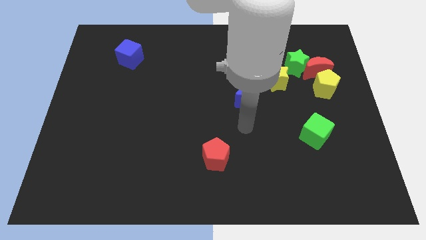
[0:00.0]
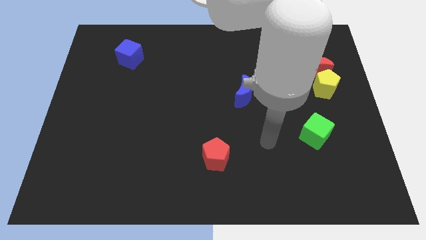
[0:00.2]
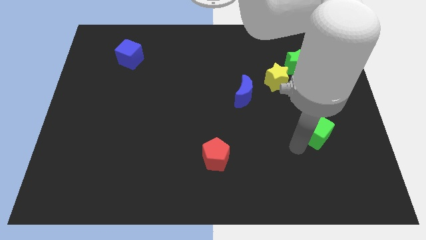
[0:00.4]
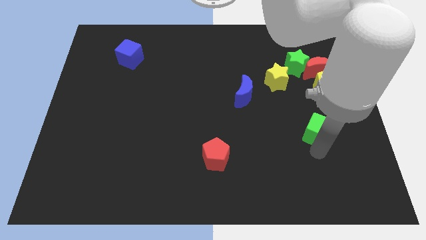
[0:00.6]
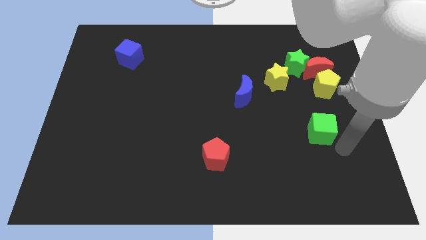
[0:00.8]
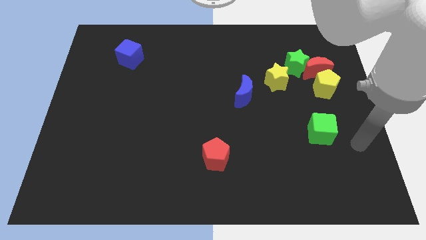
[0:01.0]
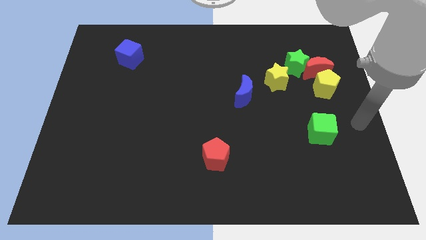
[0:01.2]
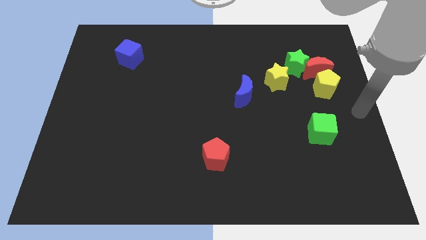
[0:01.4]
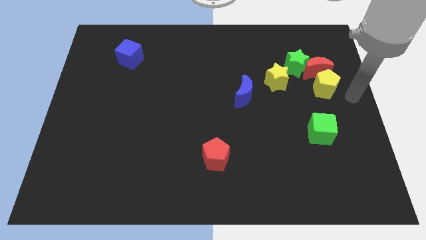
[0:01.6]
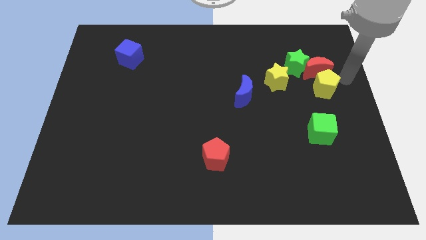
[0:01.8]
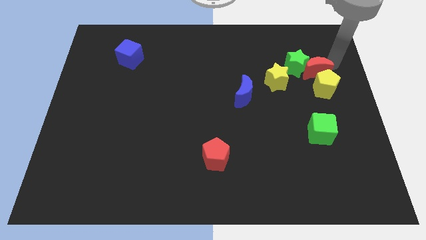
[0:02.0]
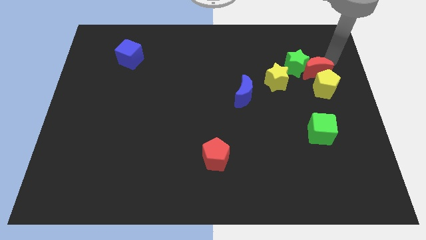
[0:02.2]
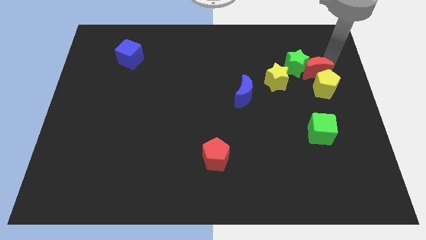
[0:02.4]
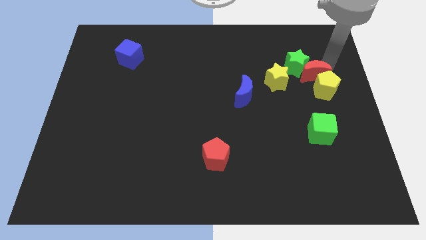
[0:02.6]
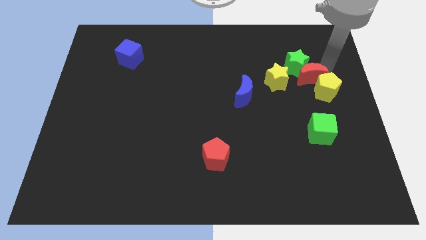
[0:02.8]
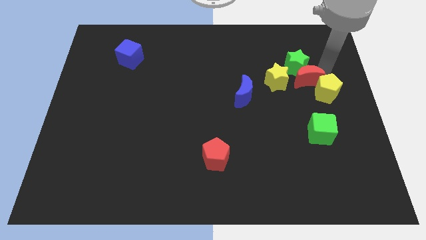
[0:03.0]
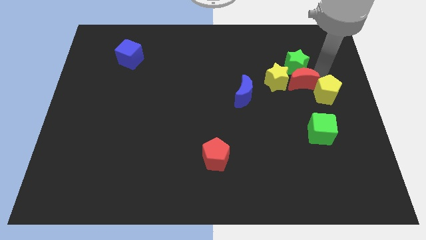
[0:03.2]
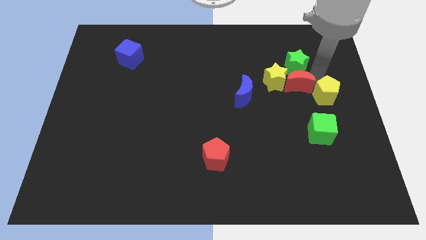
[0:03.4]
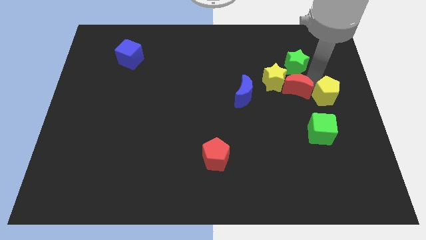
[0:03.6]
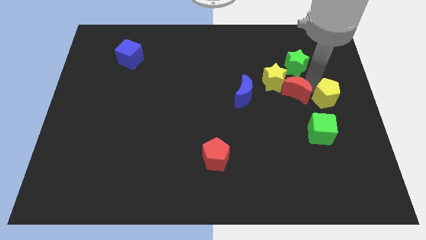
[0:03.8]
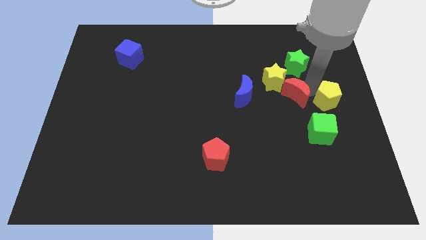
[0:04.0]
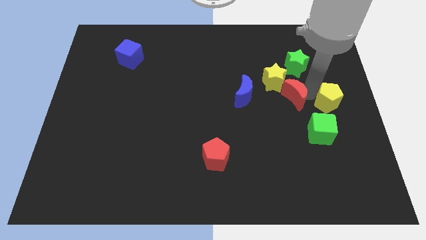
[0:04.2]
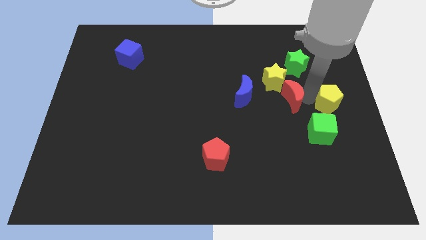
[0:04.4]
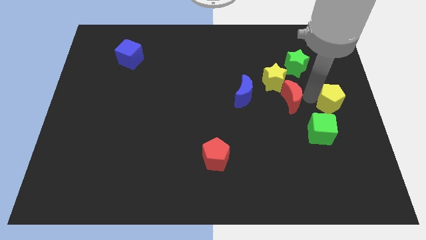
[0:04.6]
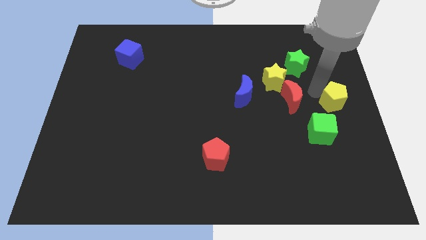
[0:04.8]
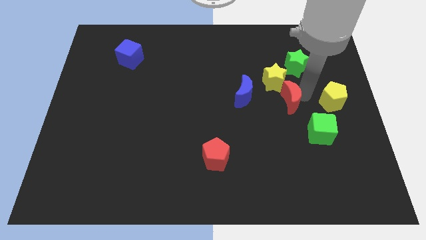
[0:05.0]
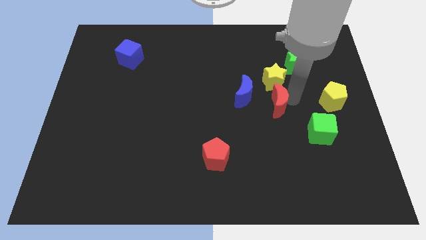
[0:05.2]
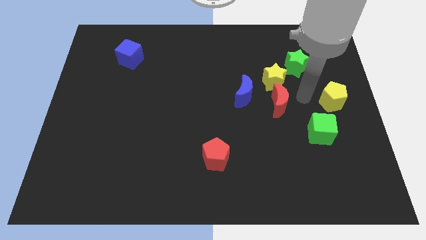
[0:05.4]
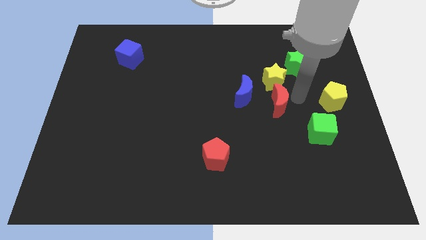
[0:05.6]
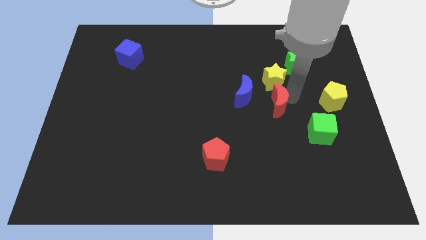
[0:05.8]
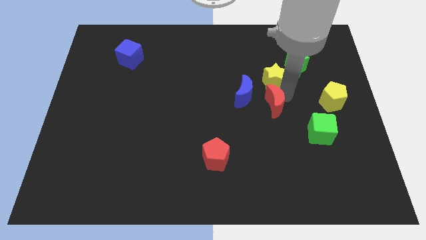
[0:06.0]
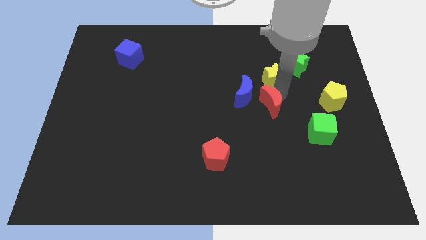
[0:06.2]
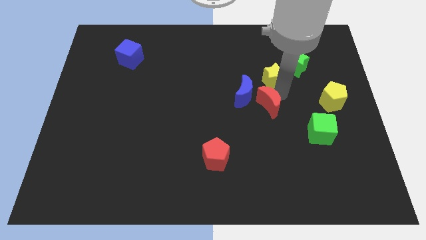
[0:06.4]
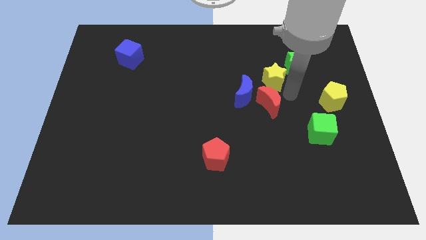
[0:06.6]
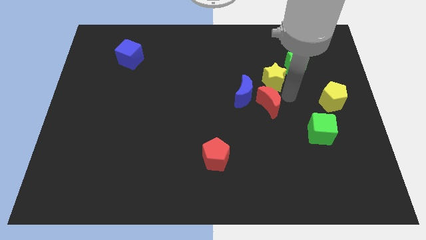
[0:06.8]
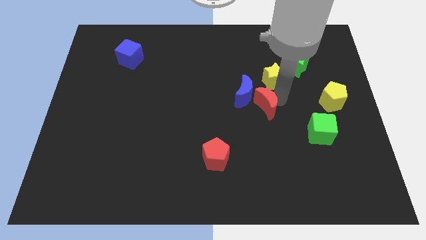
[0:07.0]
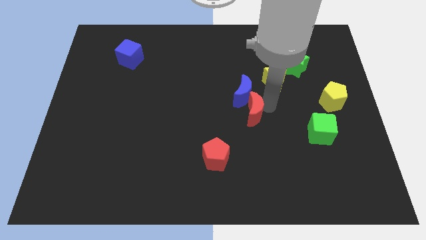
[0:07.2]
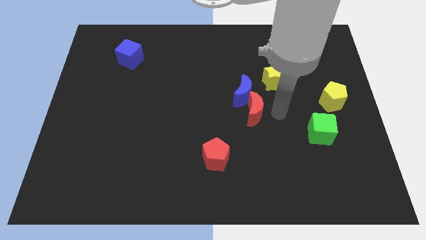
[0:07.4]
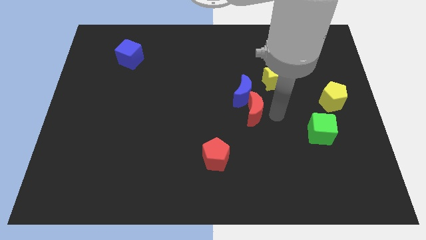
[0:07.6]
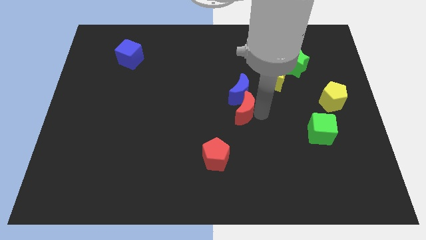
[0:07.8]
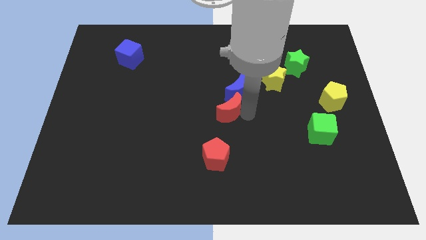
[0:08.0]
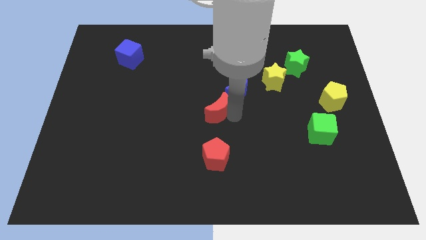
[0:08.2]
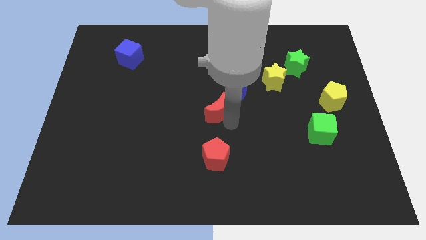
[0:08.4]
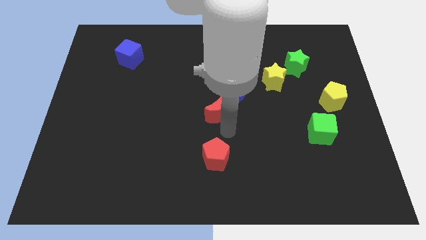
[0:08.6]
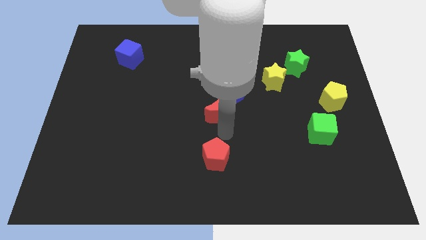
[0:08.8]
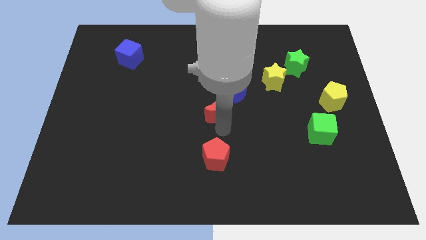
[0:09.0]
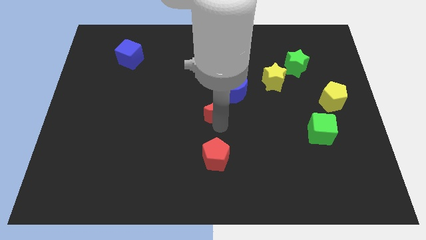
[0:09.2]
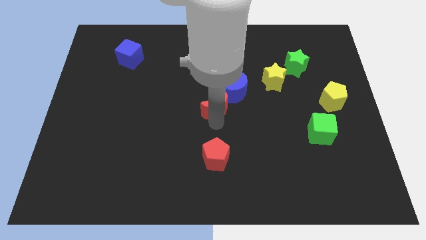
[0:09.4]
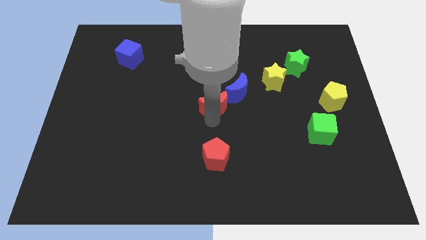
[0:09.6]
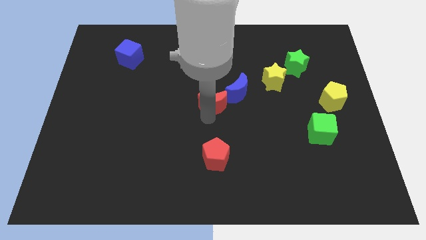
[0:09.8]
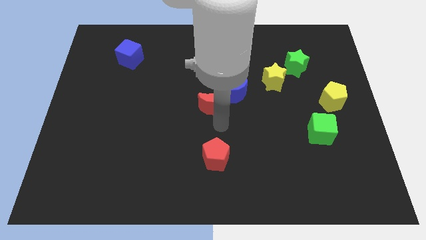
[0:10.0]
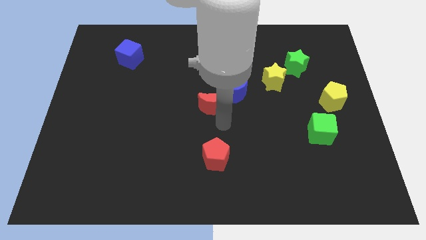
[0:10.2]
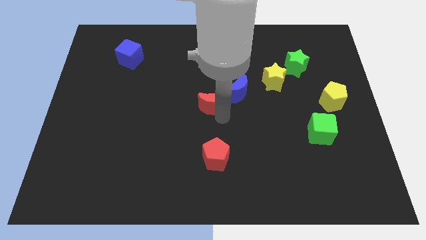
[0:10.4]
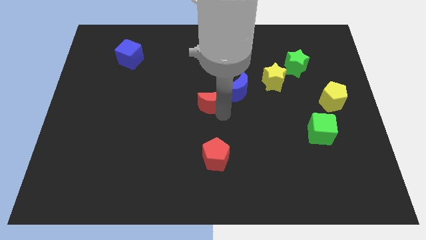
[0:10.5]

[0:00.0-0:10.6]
push the red moon to the left

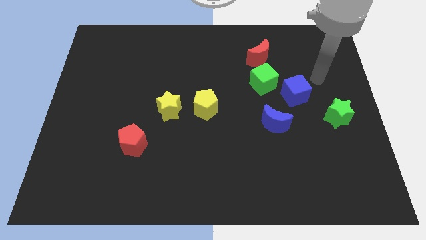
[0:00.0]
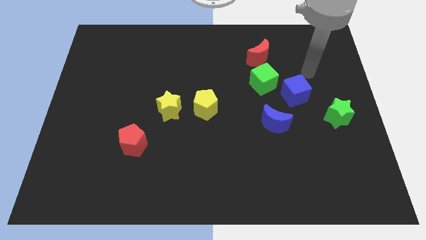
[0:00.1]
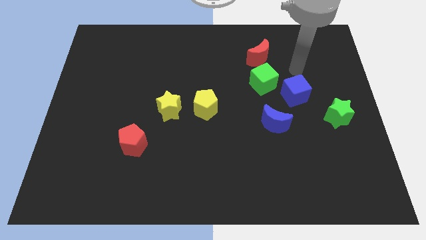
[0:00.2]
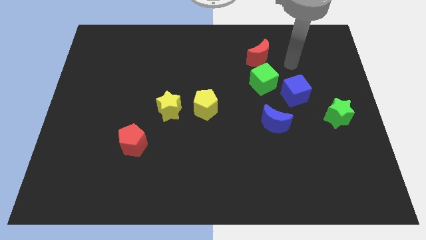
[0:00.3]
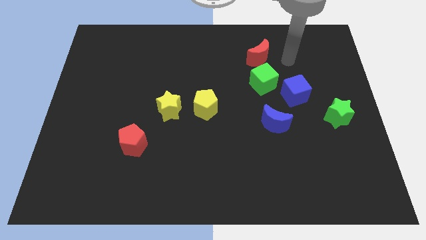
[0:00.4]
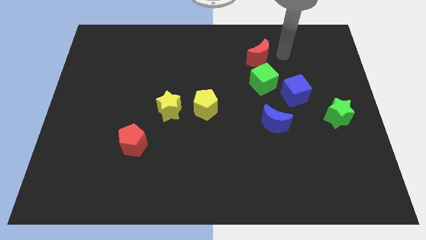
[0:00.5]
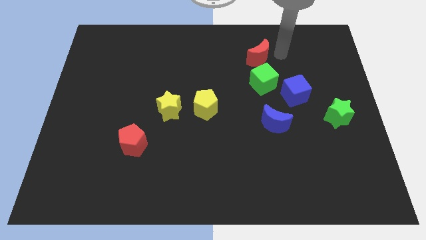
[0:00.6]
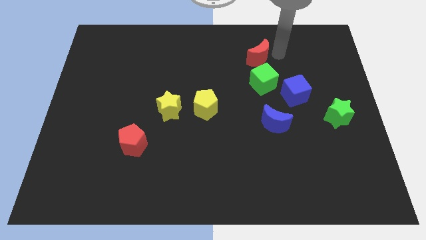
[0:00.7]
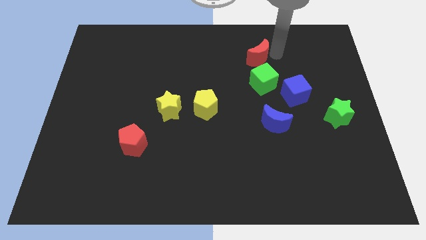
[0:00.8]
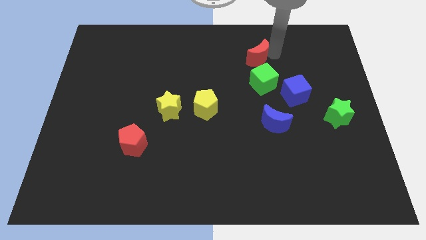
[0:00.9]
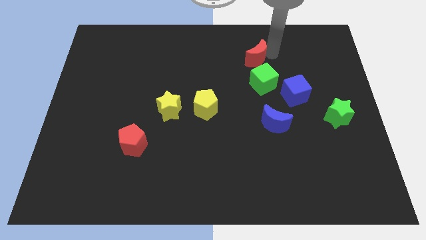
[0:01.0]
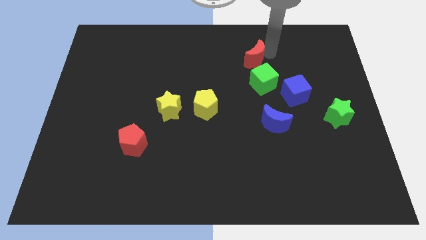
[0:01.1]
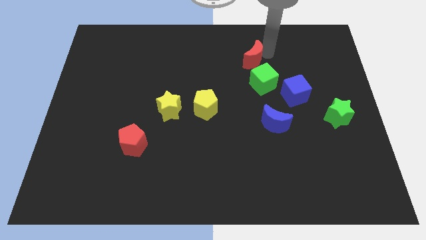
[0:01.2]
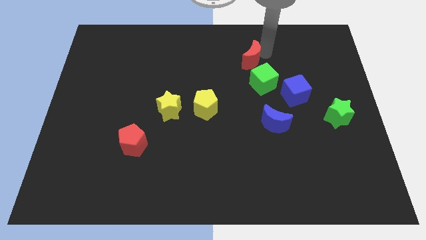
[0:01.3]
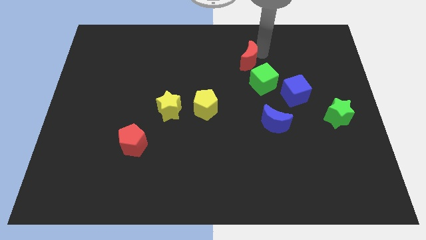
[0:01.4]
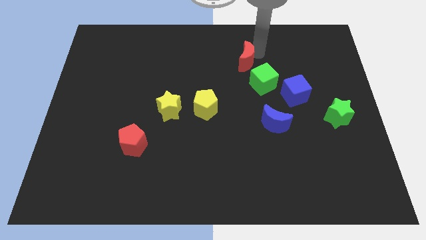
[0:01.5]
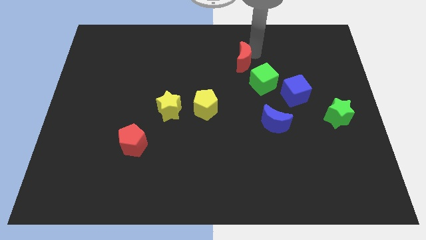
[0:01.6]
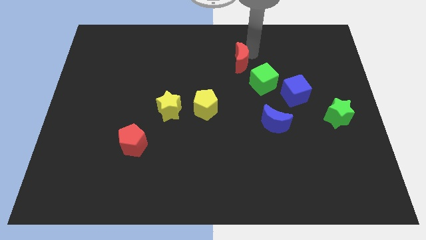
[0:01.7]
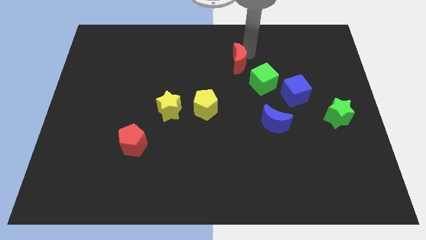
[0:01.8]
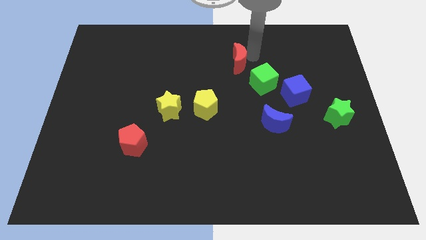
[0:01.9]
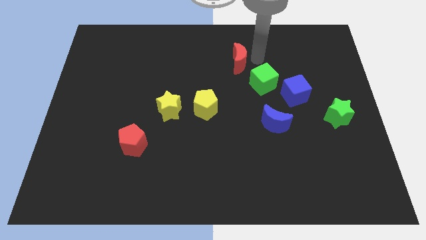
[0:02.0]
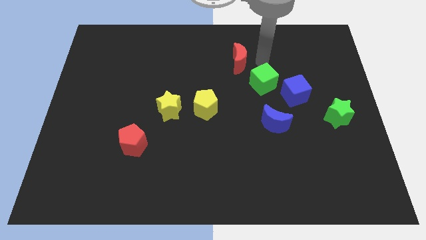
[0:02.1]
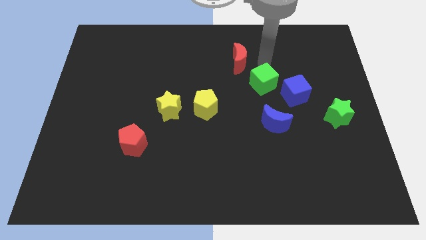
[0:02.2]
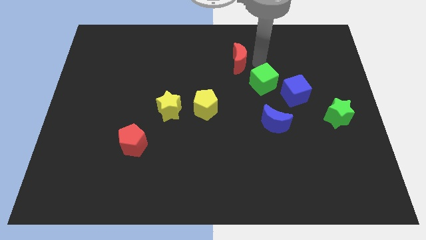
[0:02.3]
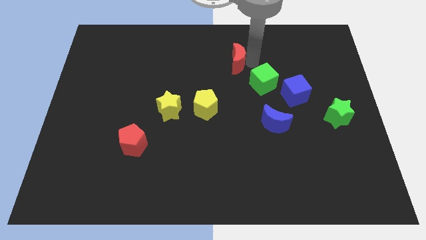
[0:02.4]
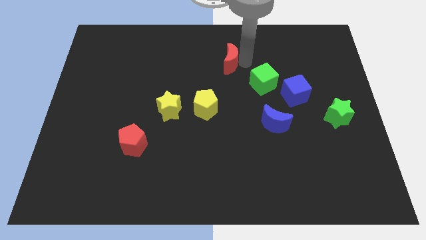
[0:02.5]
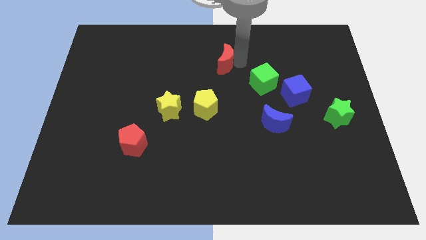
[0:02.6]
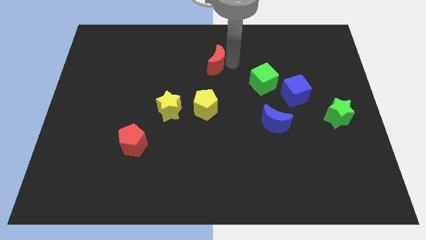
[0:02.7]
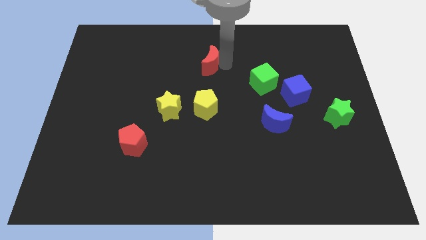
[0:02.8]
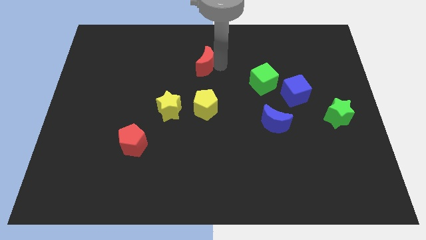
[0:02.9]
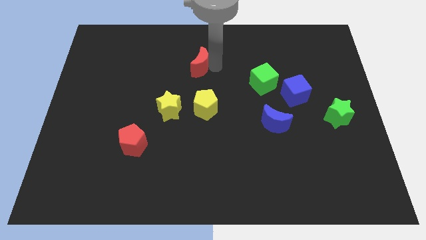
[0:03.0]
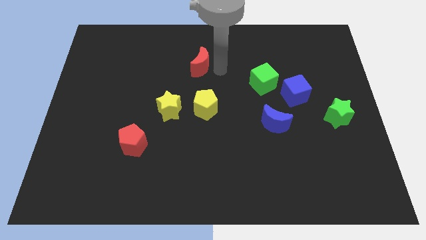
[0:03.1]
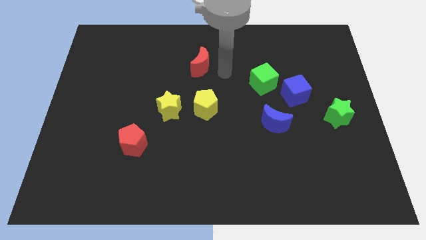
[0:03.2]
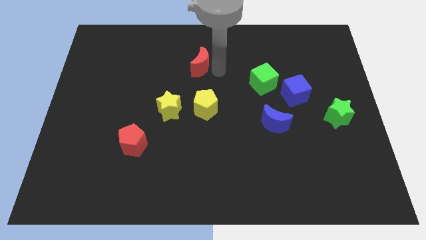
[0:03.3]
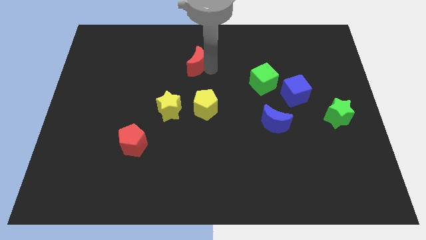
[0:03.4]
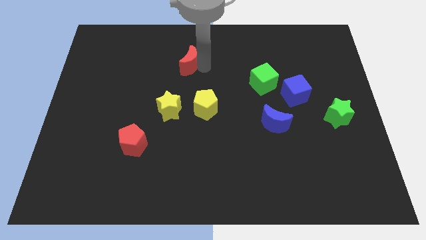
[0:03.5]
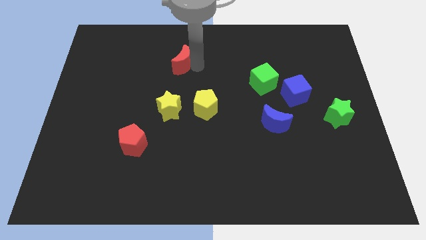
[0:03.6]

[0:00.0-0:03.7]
slide the red moon left
